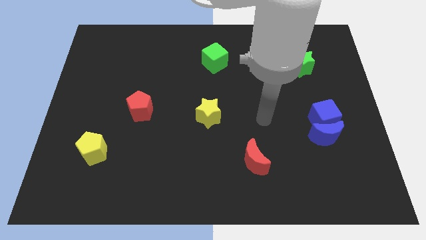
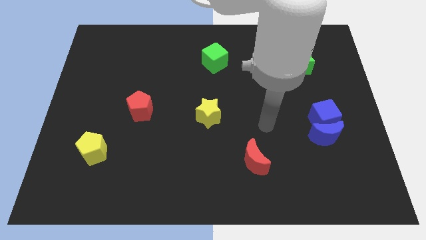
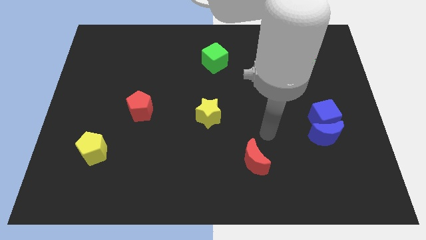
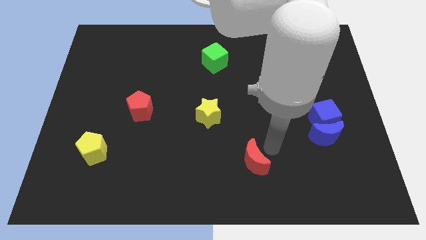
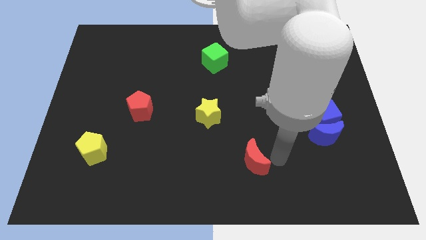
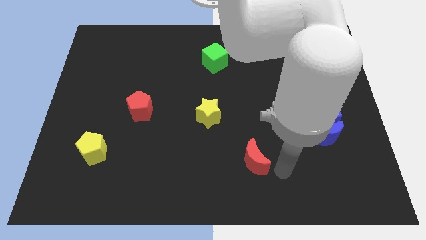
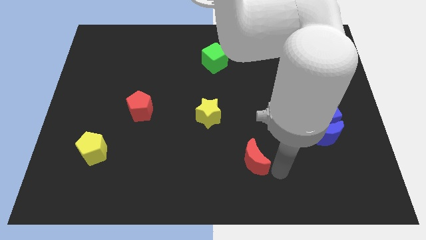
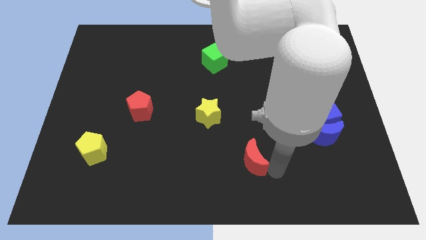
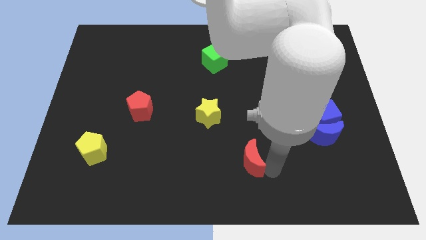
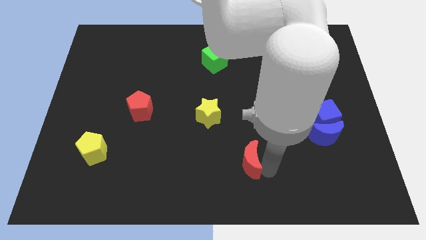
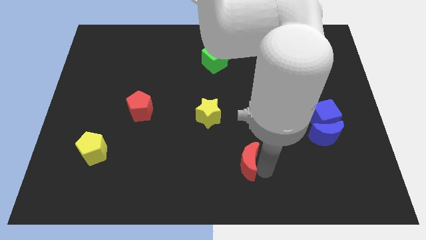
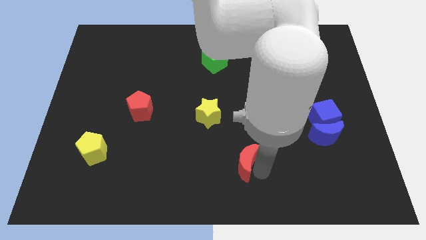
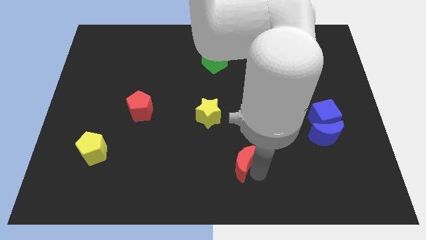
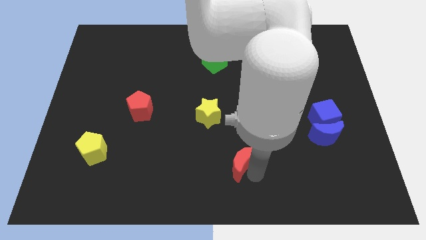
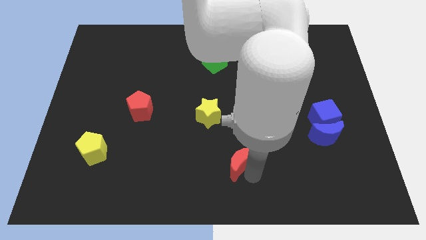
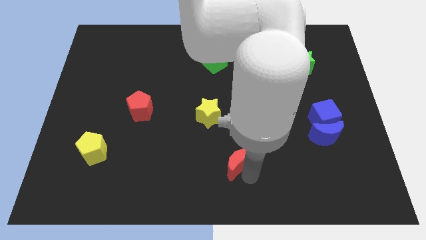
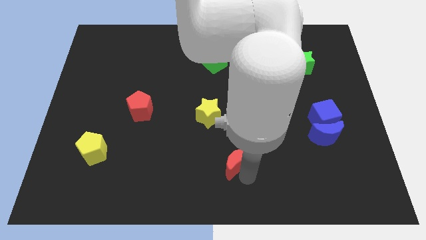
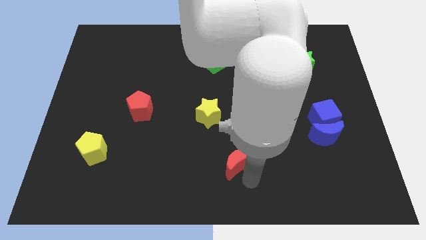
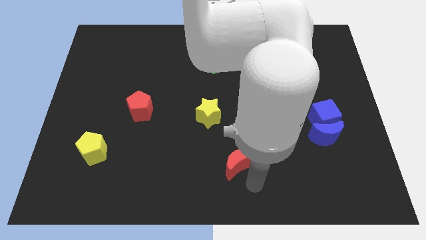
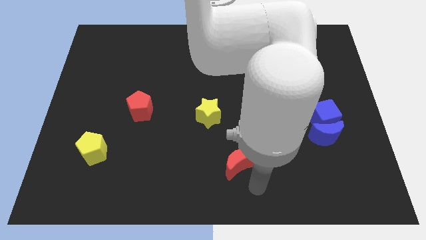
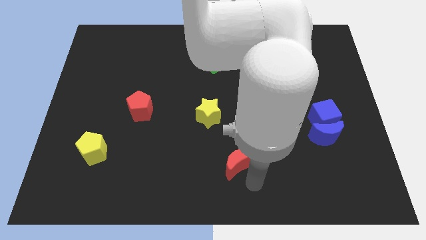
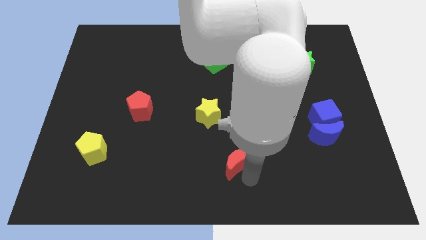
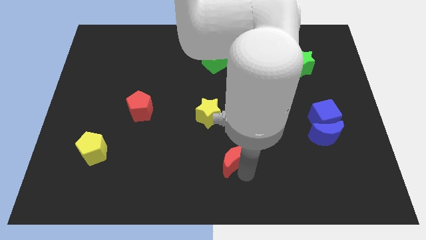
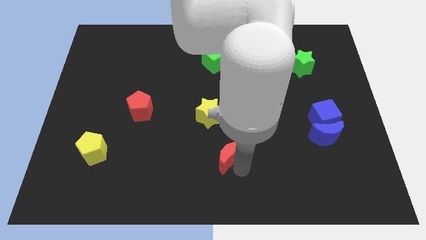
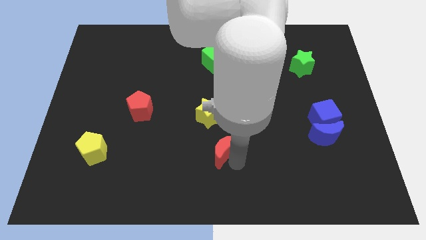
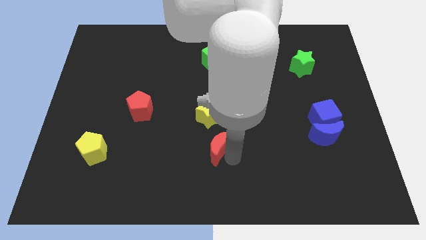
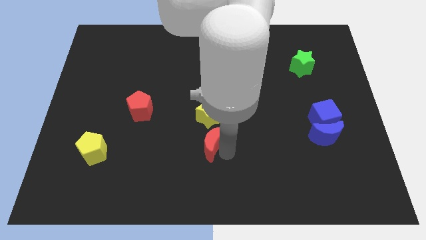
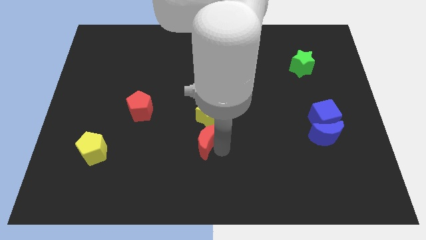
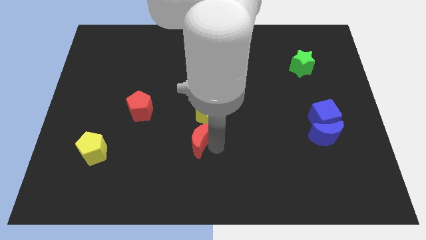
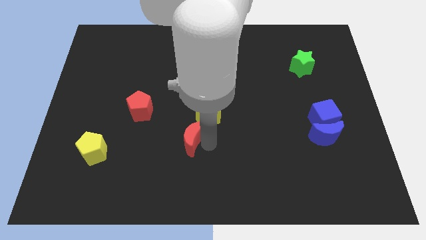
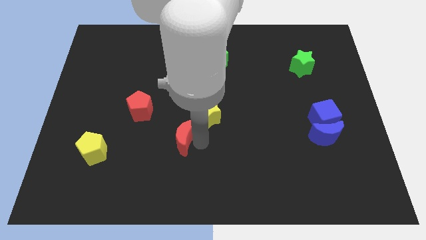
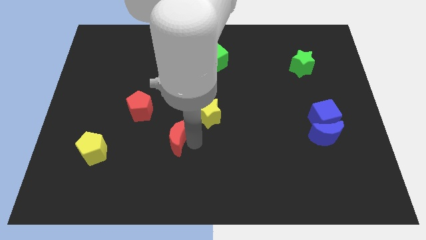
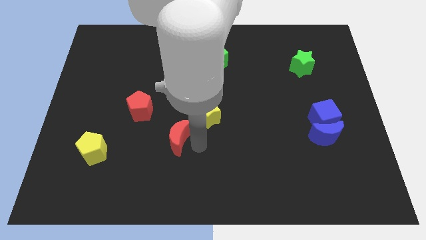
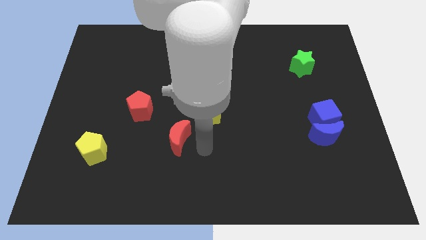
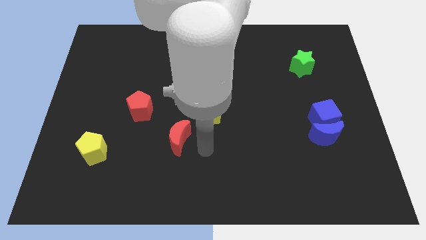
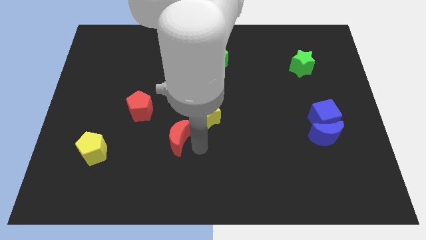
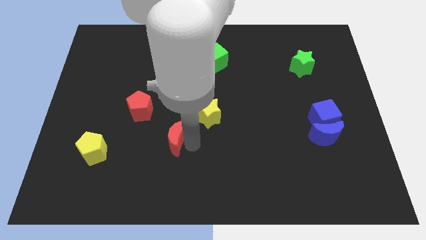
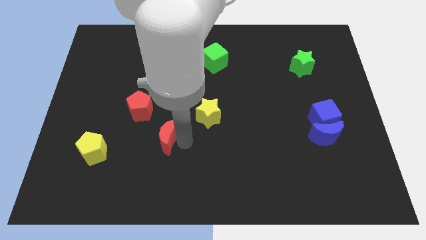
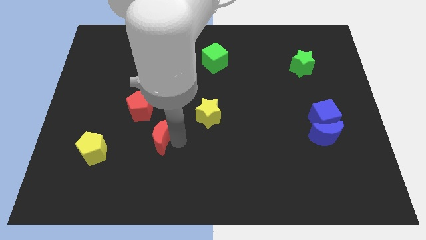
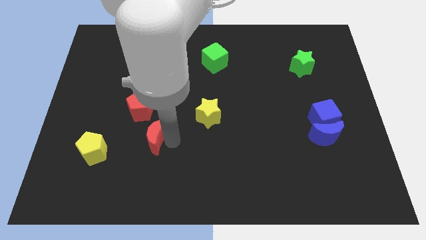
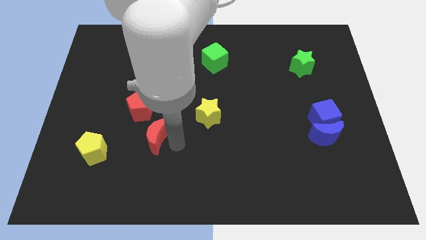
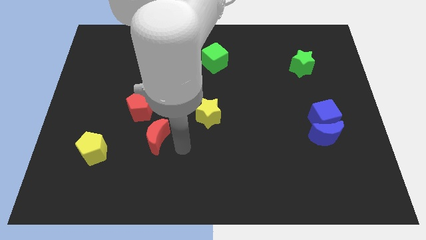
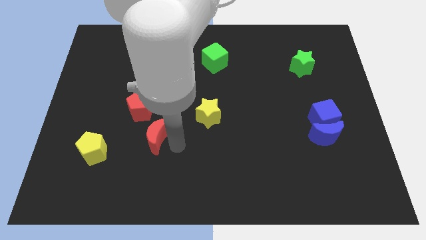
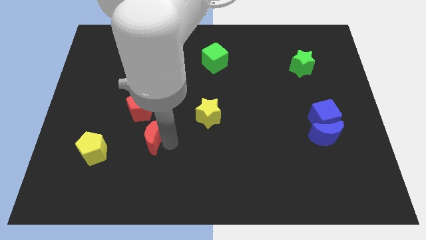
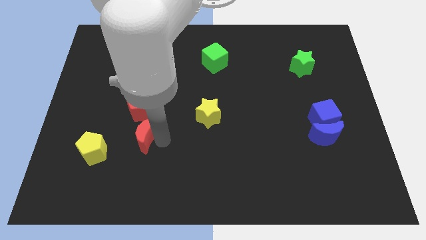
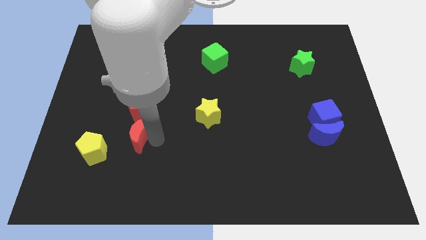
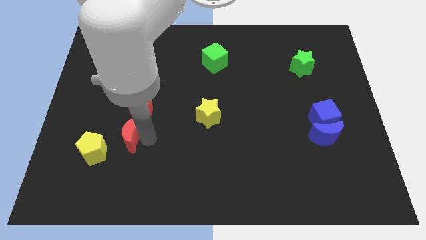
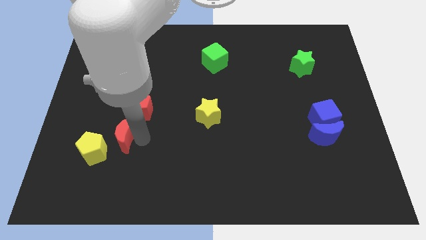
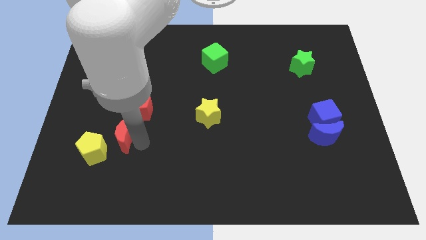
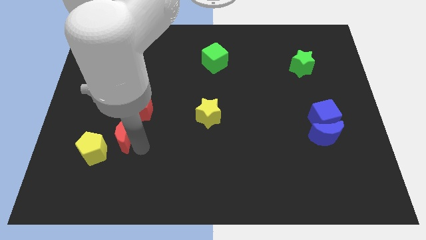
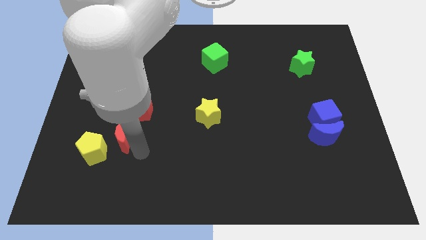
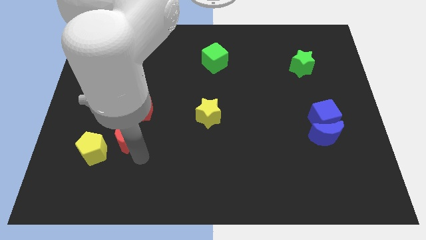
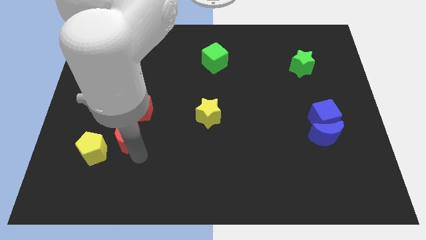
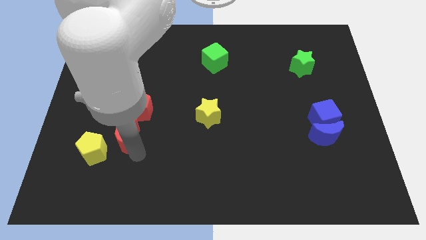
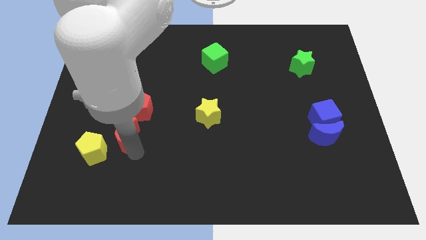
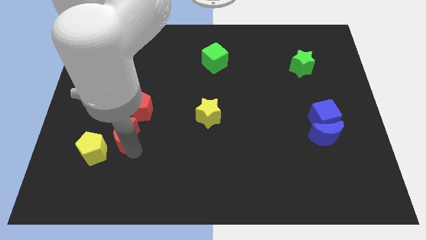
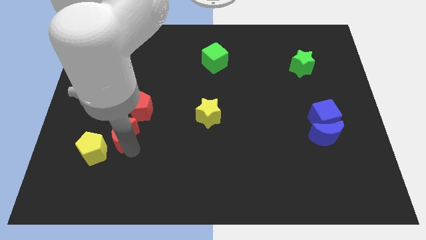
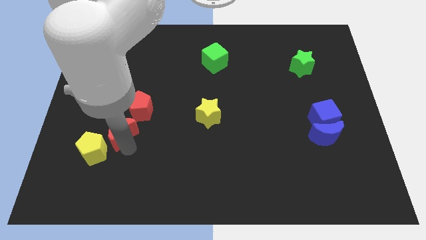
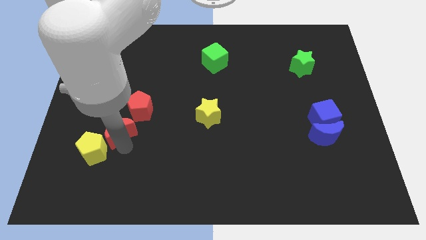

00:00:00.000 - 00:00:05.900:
push the red moon to the top of the yellow pentagon

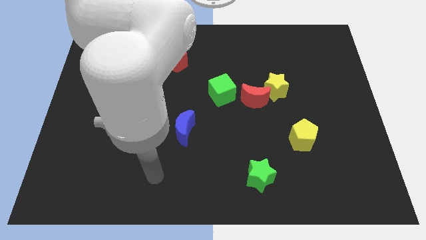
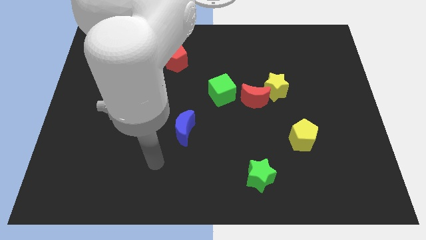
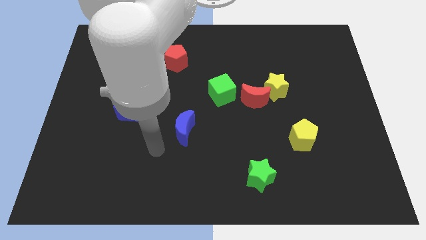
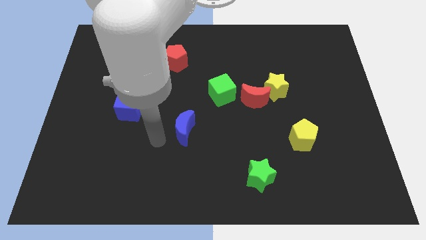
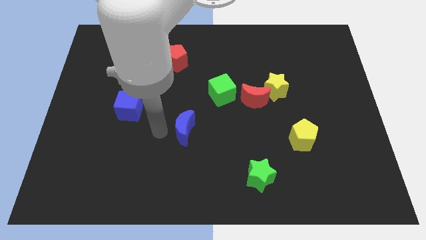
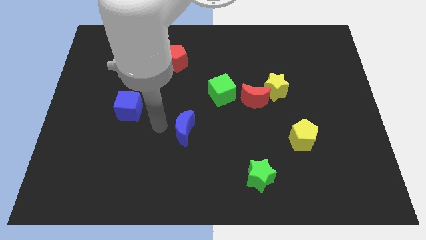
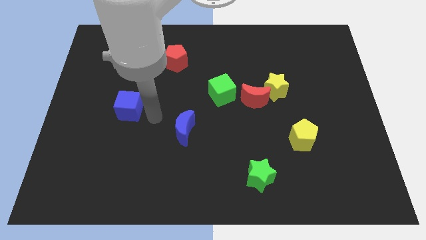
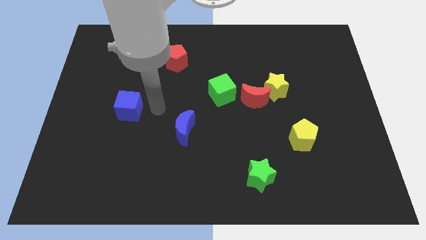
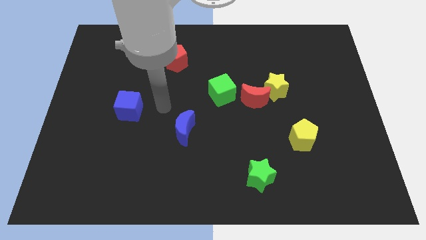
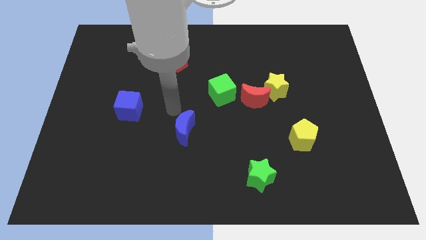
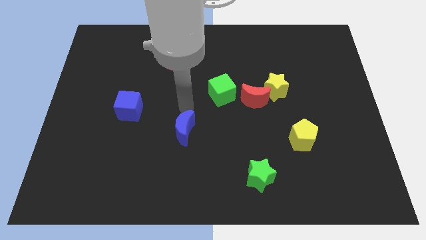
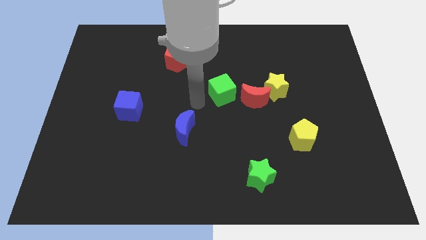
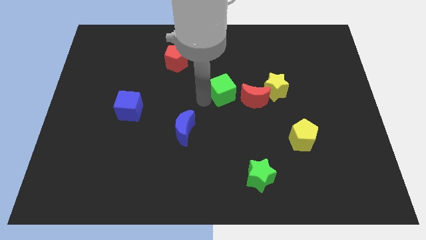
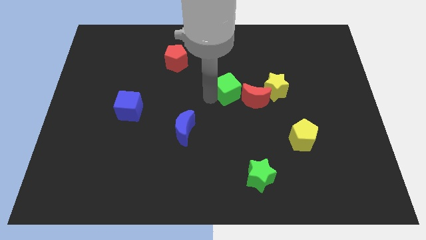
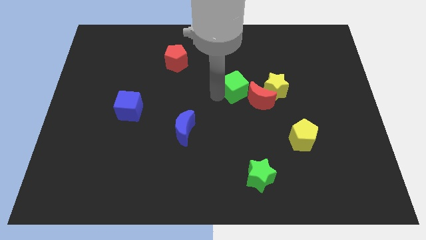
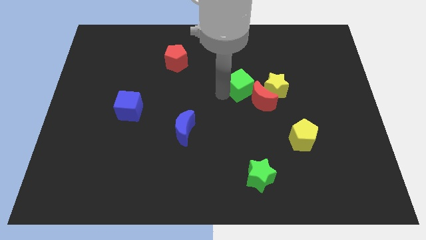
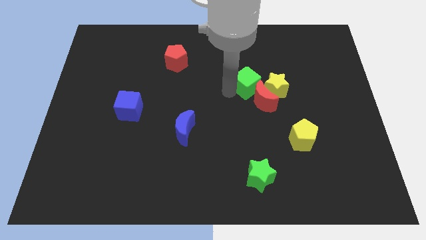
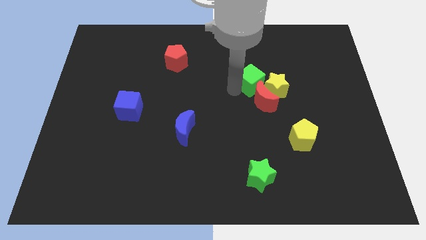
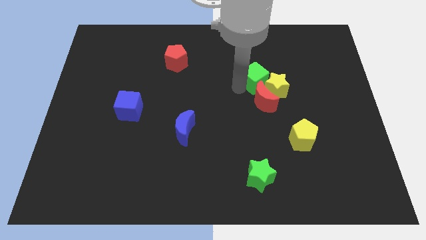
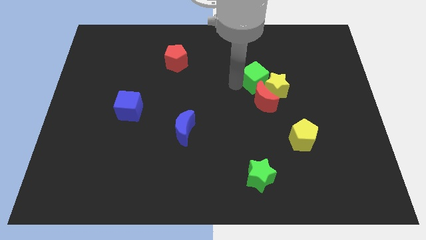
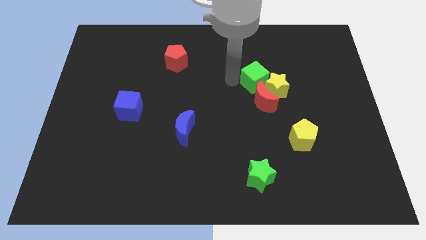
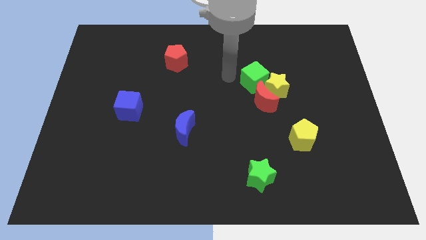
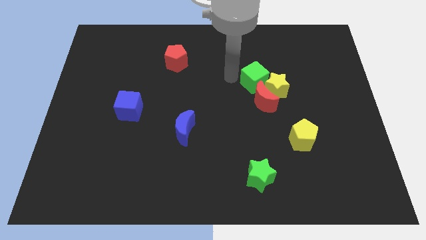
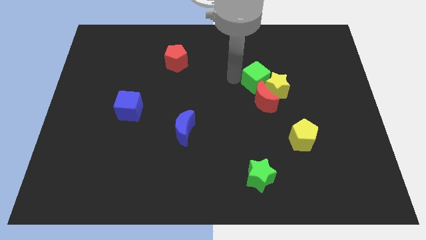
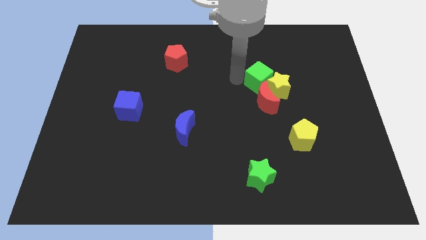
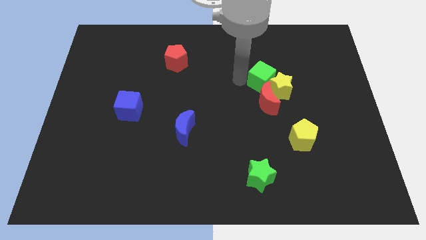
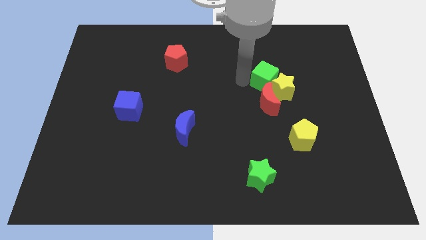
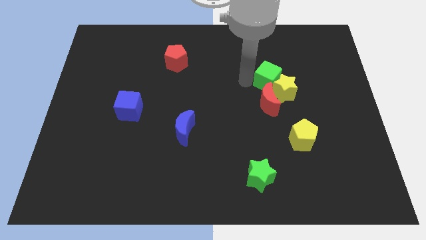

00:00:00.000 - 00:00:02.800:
push the green cube diagonally up and to the right of the red moon
